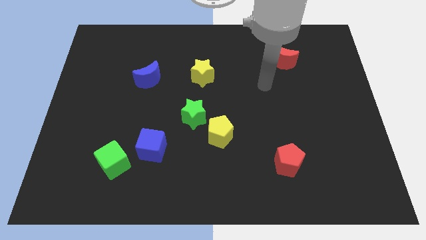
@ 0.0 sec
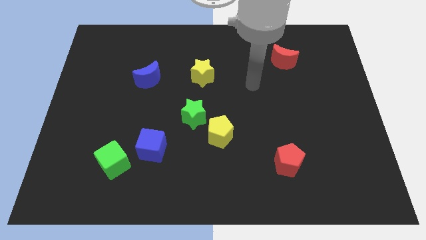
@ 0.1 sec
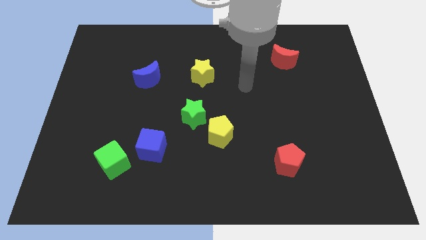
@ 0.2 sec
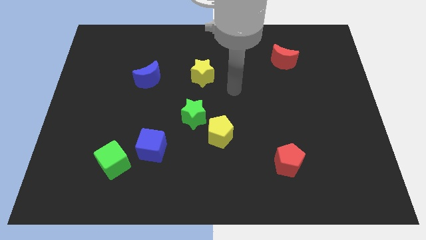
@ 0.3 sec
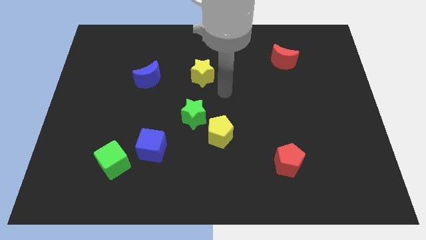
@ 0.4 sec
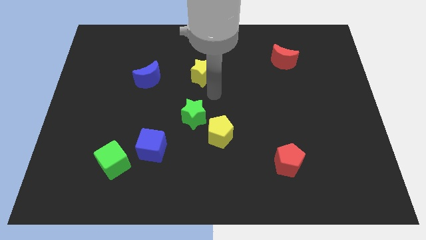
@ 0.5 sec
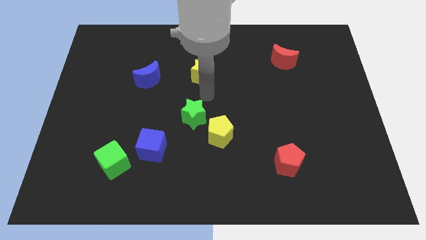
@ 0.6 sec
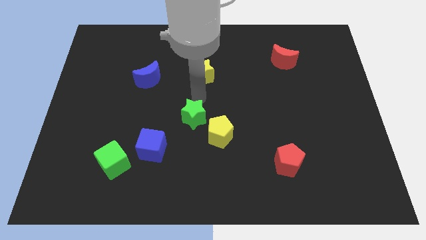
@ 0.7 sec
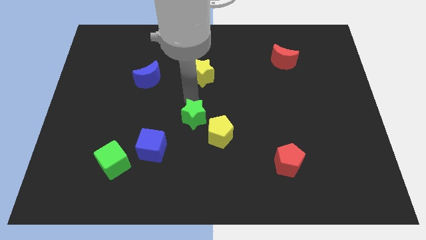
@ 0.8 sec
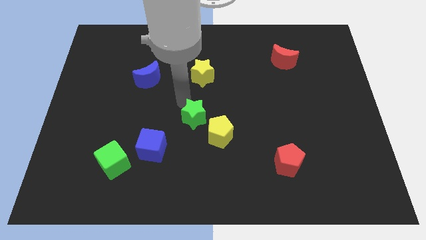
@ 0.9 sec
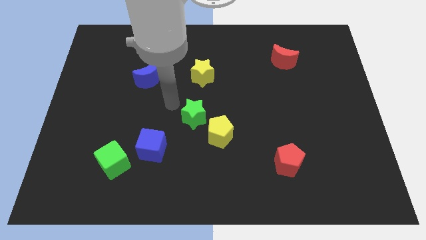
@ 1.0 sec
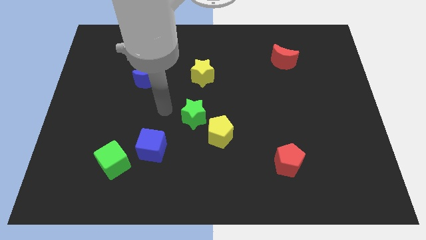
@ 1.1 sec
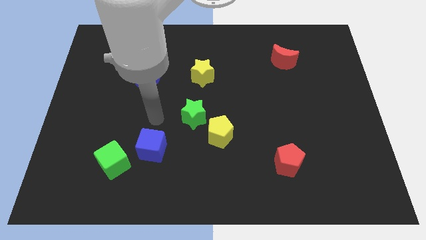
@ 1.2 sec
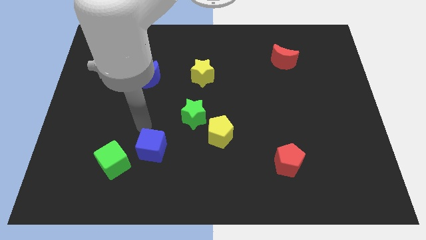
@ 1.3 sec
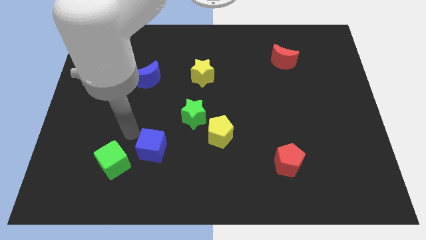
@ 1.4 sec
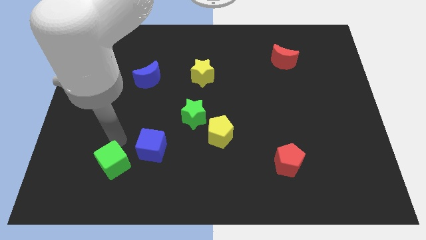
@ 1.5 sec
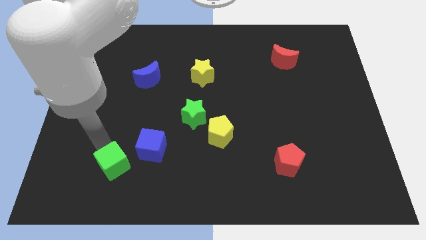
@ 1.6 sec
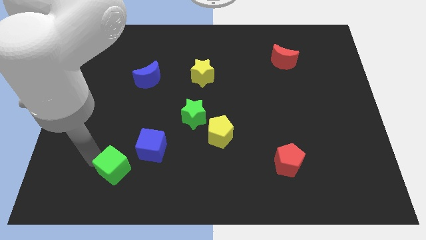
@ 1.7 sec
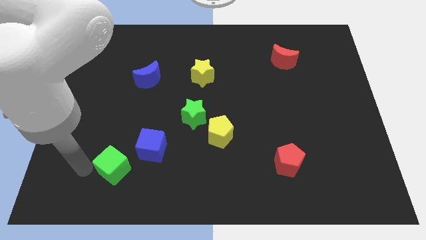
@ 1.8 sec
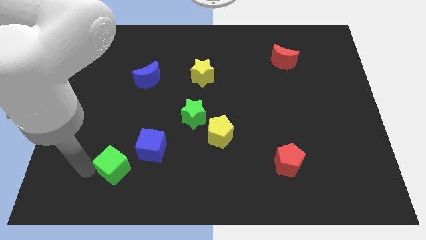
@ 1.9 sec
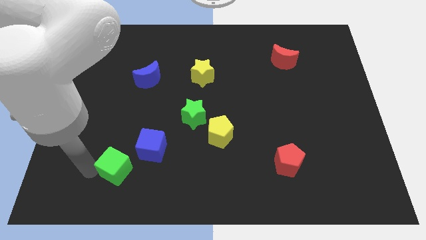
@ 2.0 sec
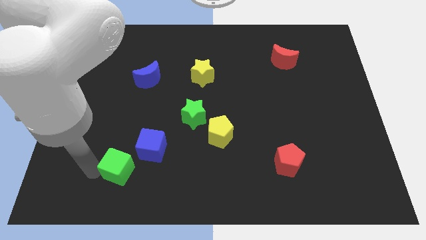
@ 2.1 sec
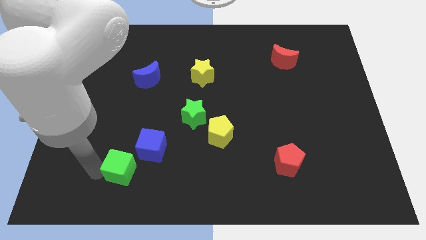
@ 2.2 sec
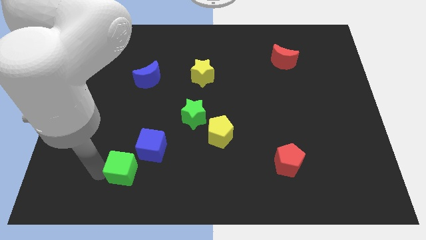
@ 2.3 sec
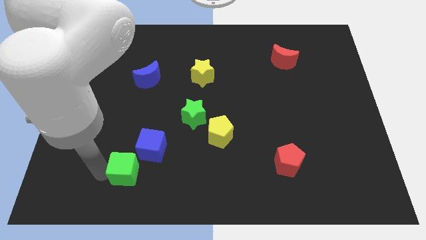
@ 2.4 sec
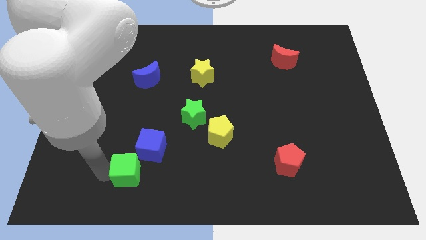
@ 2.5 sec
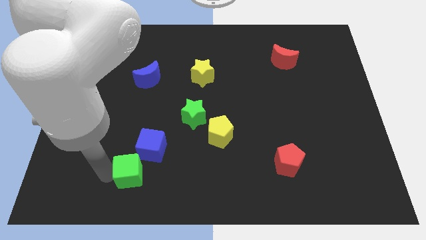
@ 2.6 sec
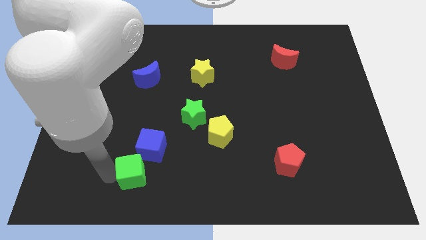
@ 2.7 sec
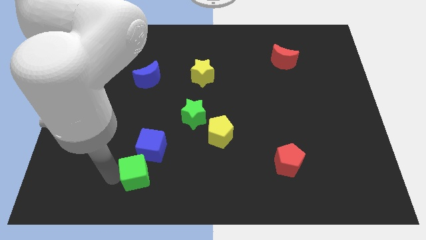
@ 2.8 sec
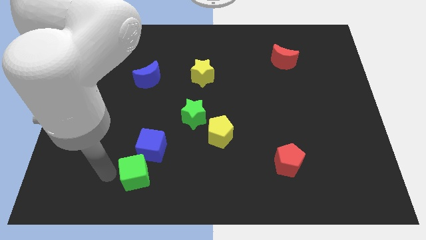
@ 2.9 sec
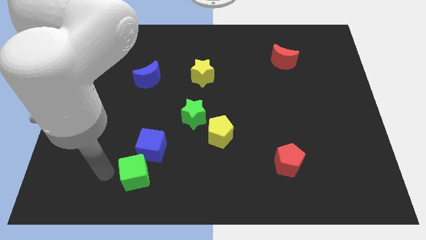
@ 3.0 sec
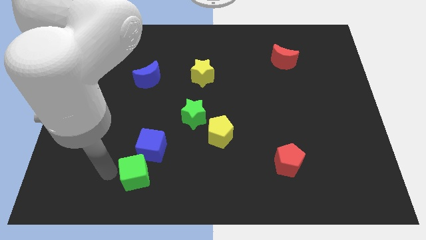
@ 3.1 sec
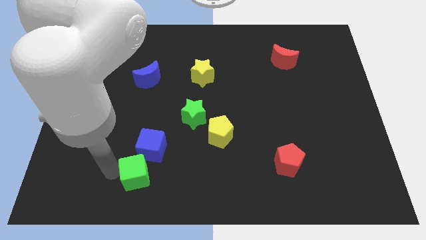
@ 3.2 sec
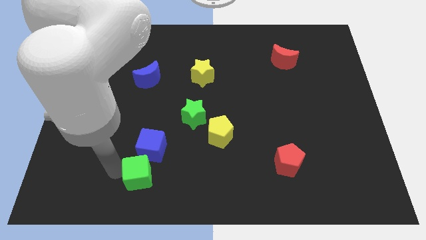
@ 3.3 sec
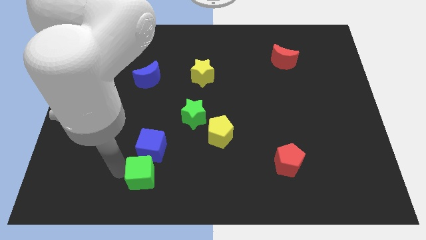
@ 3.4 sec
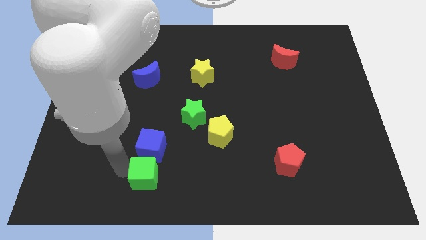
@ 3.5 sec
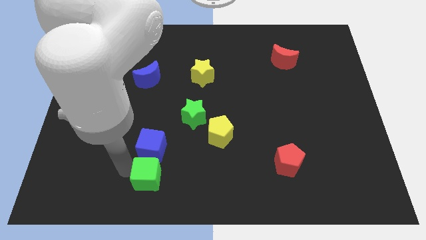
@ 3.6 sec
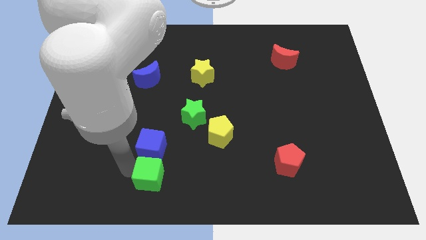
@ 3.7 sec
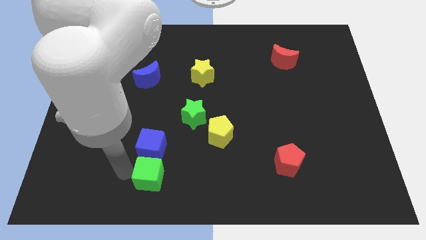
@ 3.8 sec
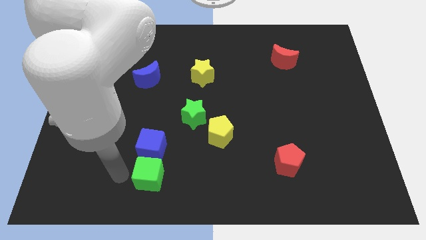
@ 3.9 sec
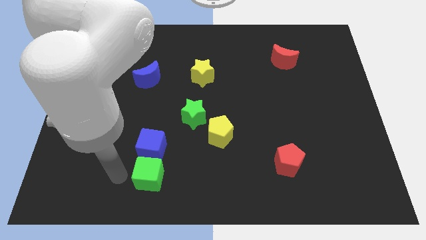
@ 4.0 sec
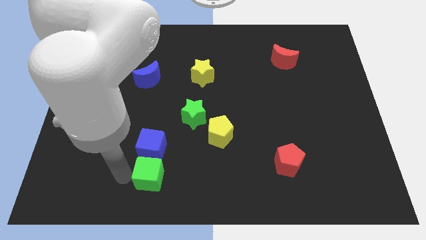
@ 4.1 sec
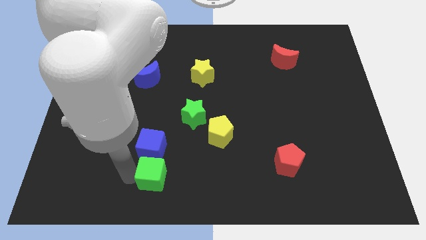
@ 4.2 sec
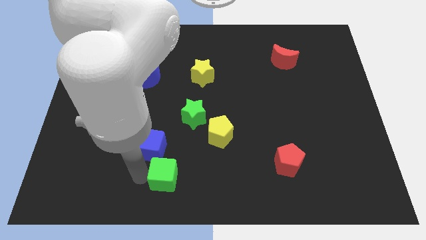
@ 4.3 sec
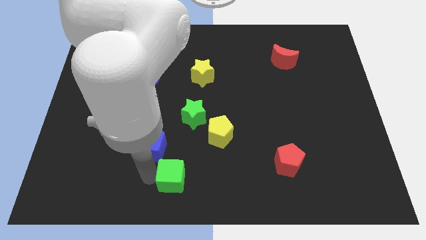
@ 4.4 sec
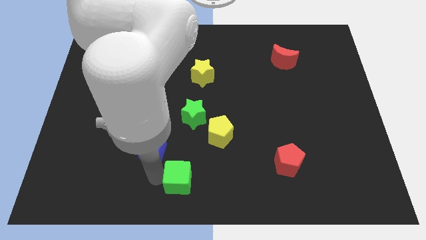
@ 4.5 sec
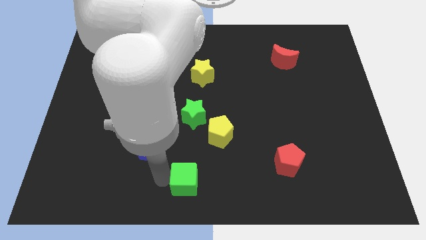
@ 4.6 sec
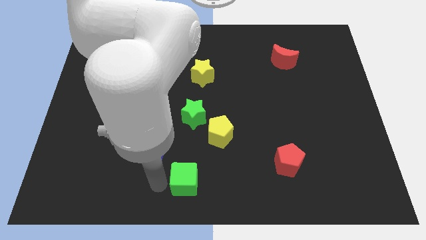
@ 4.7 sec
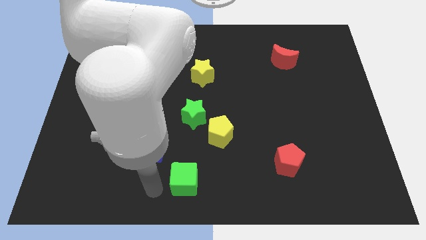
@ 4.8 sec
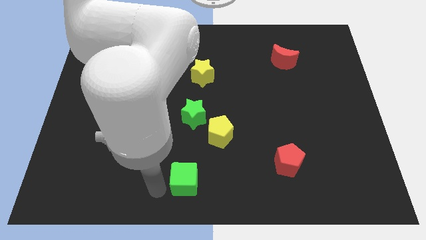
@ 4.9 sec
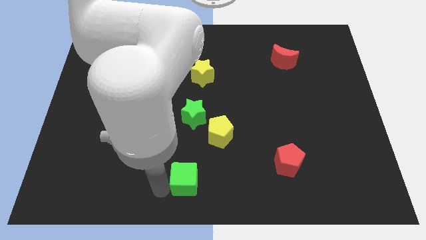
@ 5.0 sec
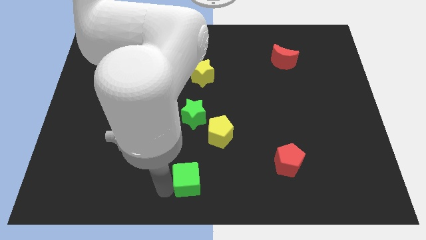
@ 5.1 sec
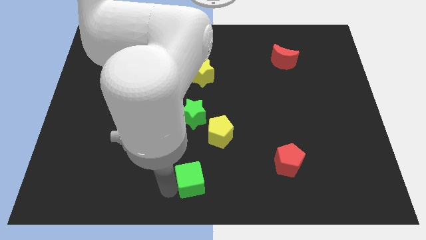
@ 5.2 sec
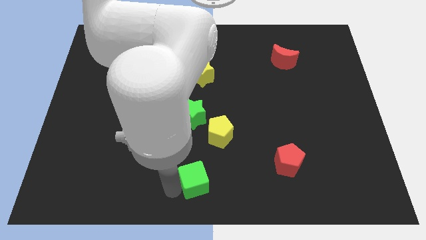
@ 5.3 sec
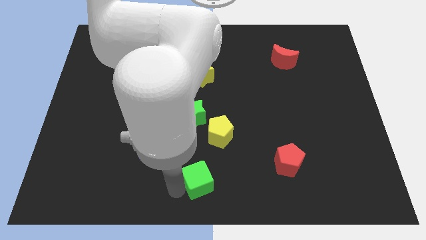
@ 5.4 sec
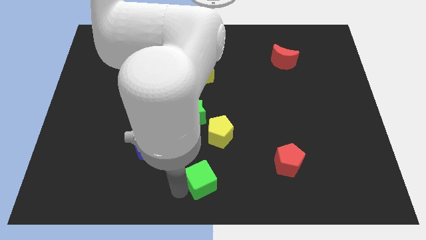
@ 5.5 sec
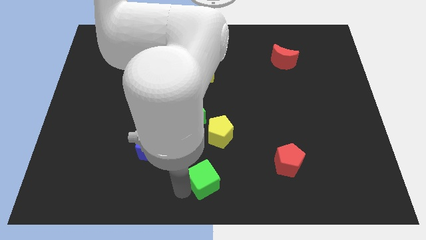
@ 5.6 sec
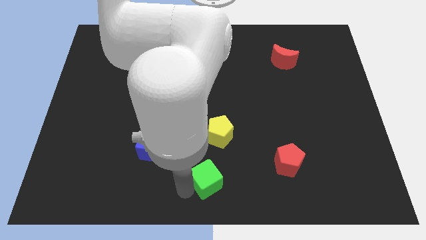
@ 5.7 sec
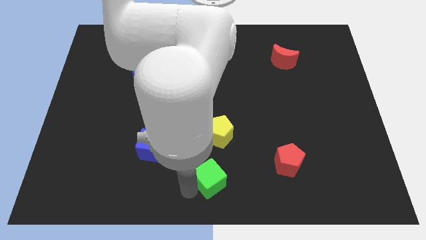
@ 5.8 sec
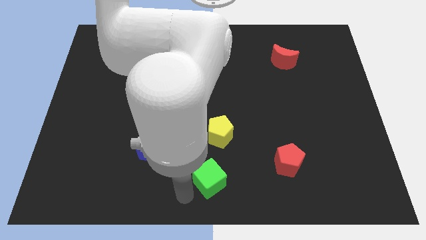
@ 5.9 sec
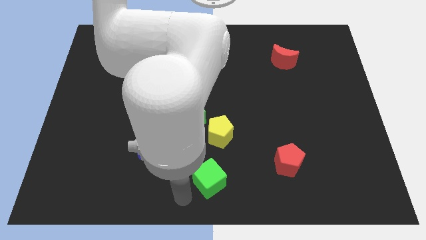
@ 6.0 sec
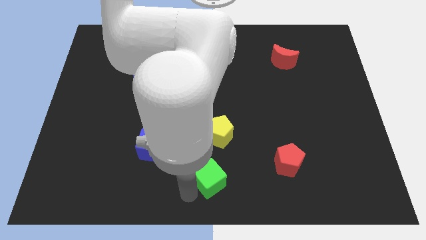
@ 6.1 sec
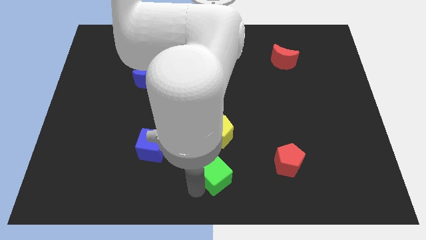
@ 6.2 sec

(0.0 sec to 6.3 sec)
push the green cube right

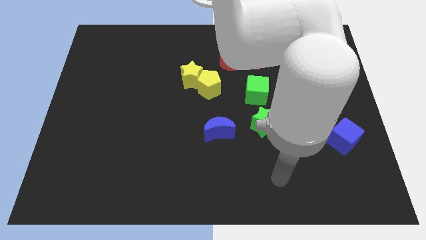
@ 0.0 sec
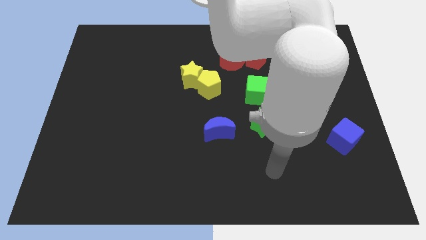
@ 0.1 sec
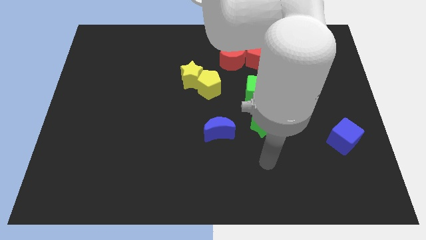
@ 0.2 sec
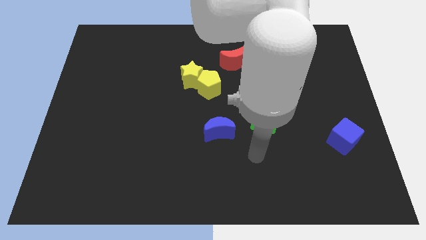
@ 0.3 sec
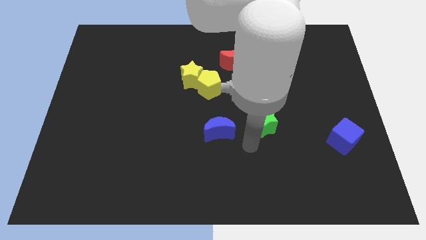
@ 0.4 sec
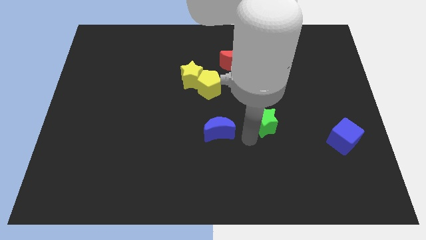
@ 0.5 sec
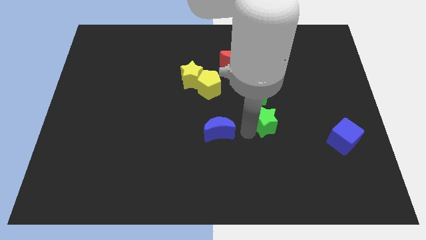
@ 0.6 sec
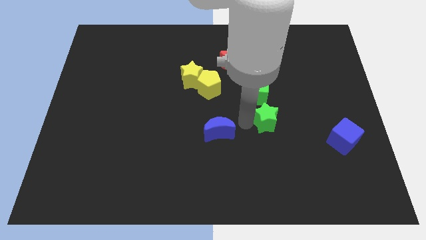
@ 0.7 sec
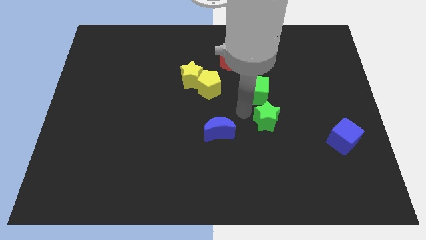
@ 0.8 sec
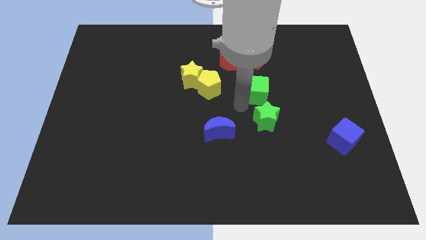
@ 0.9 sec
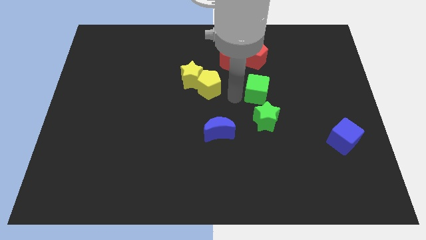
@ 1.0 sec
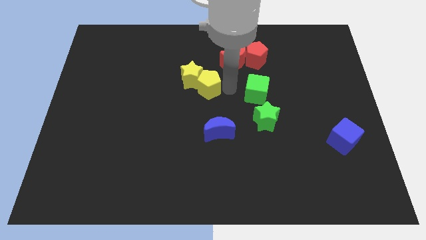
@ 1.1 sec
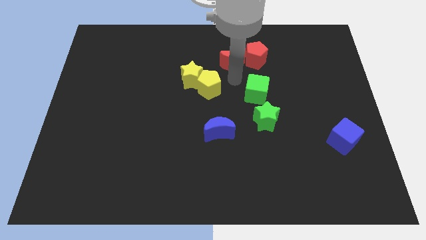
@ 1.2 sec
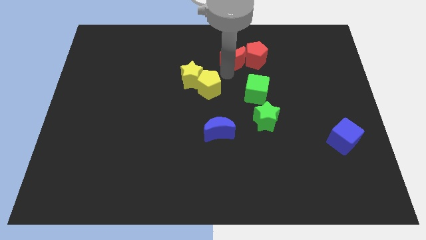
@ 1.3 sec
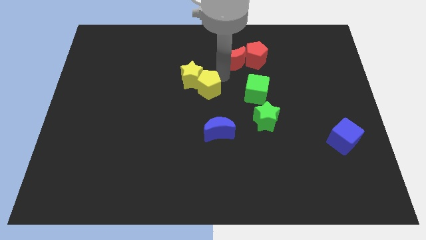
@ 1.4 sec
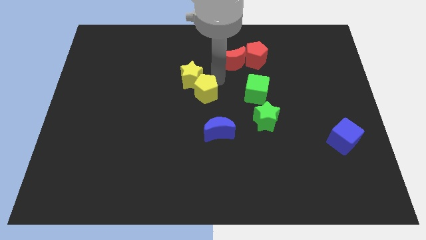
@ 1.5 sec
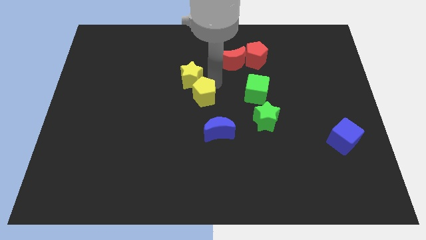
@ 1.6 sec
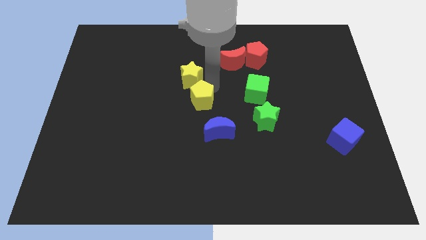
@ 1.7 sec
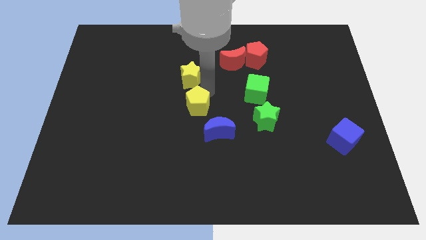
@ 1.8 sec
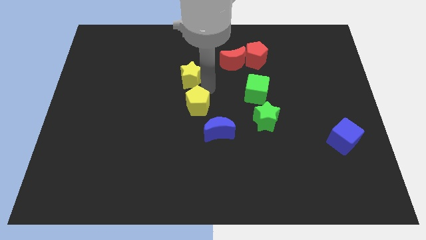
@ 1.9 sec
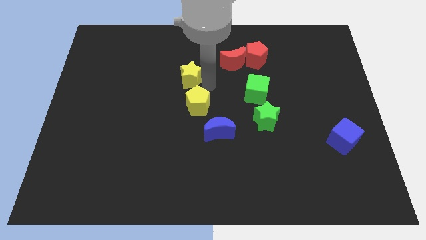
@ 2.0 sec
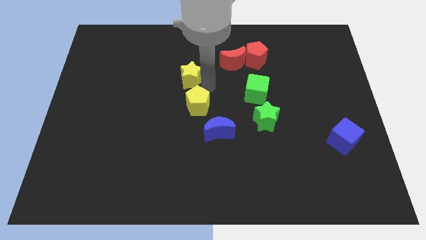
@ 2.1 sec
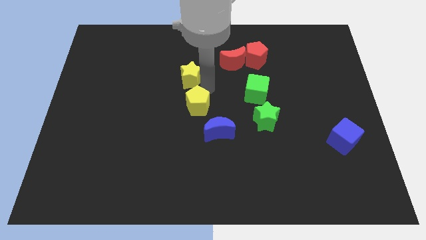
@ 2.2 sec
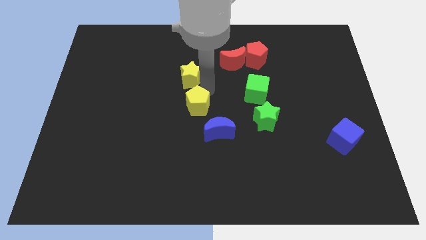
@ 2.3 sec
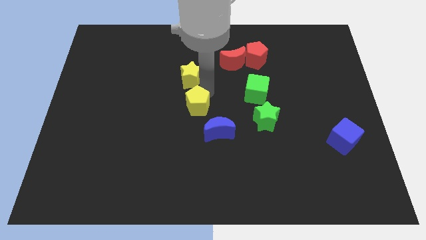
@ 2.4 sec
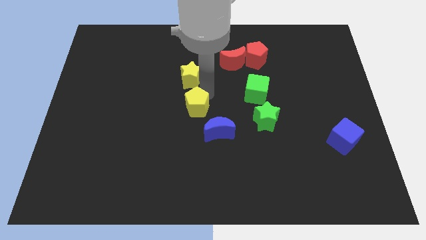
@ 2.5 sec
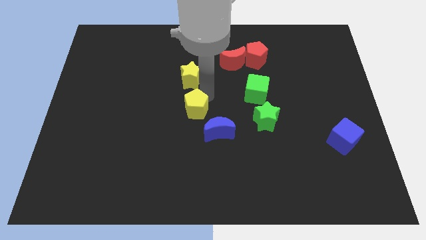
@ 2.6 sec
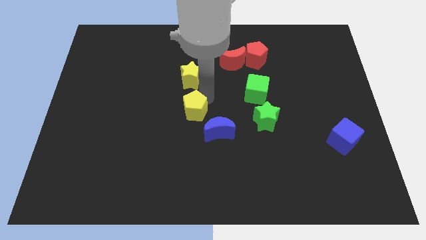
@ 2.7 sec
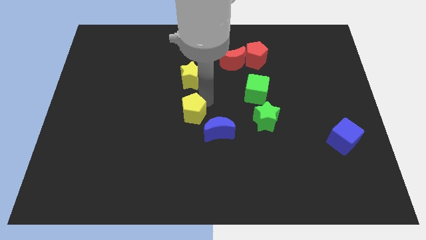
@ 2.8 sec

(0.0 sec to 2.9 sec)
slide the yellow pentagon downwards a little bit
